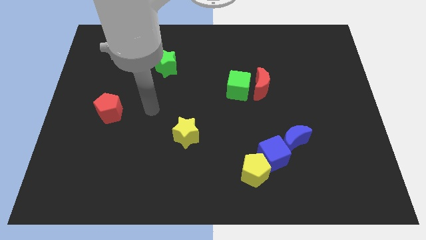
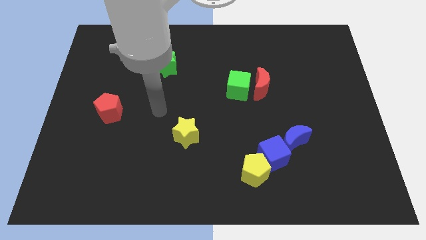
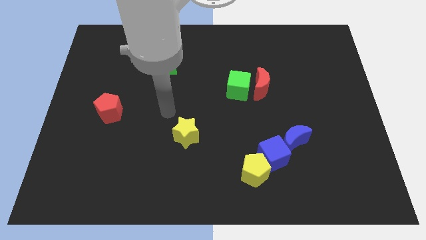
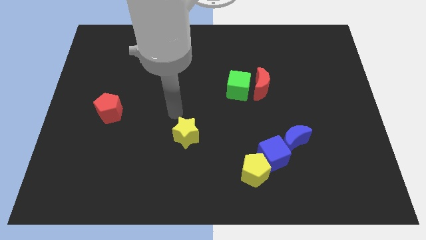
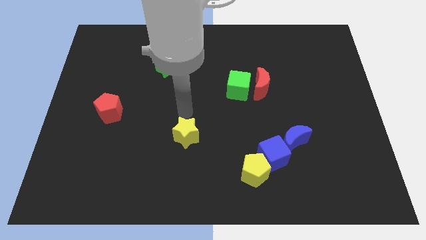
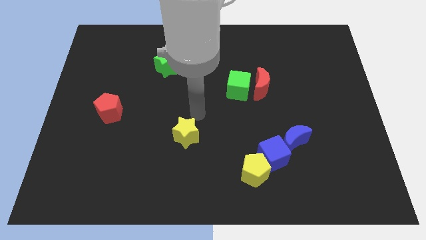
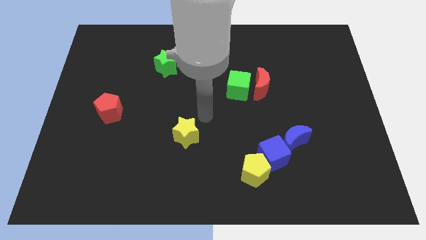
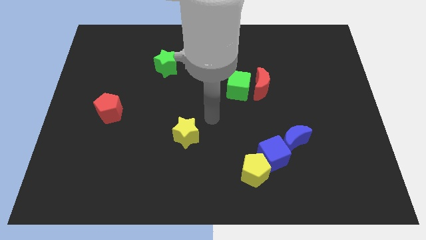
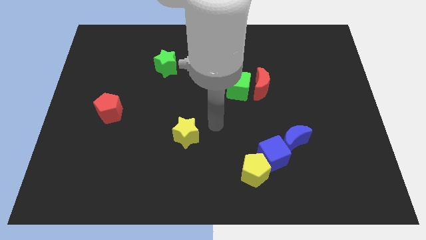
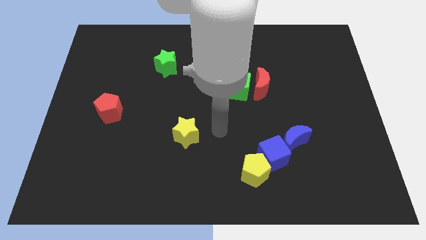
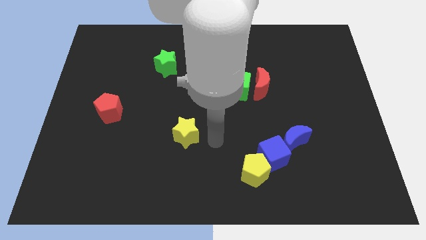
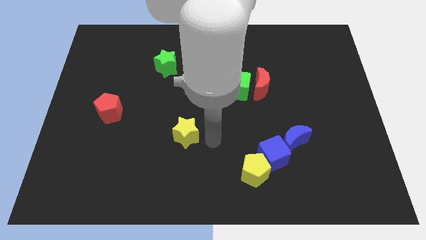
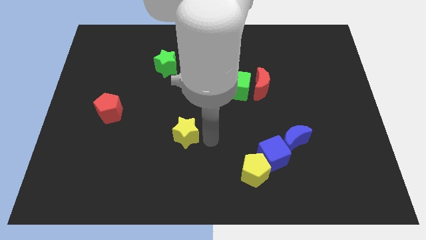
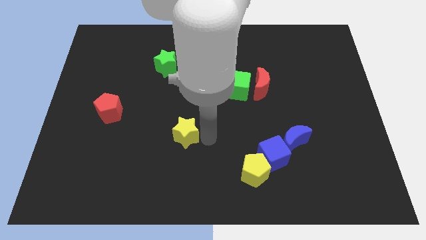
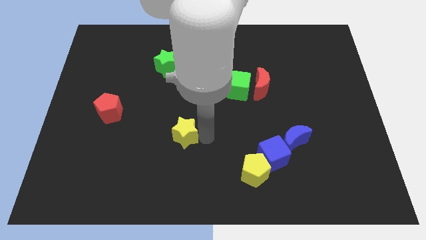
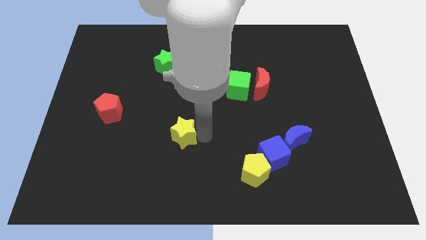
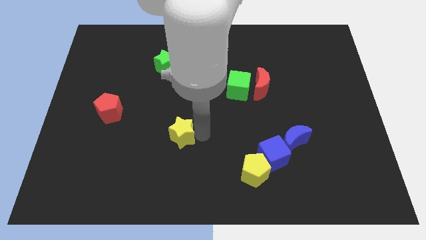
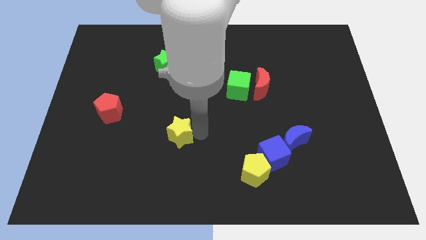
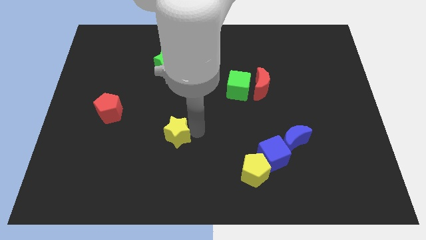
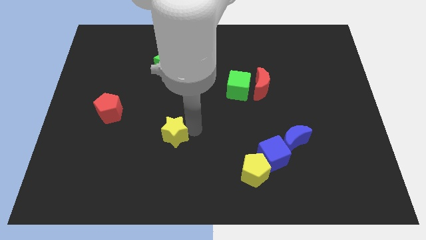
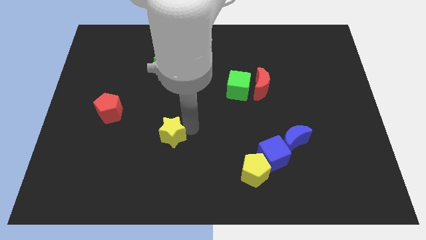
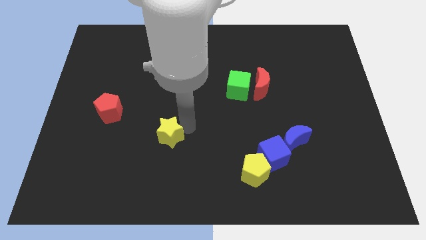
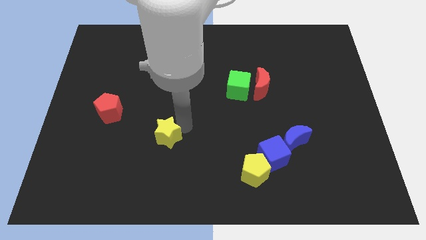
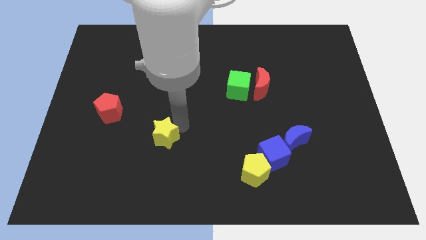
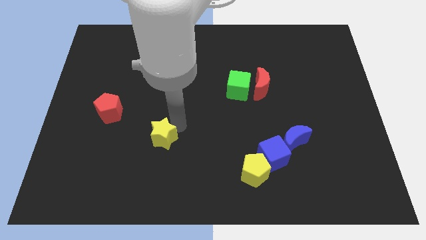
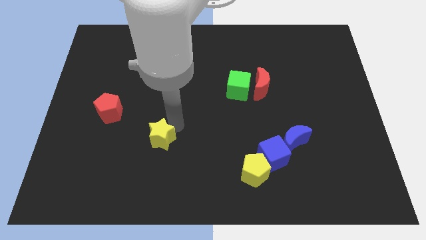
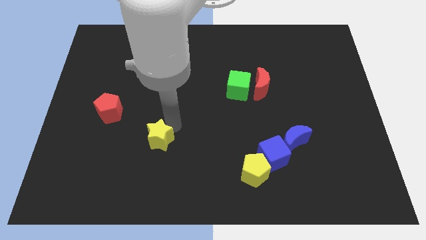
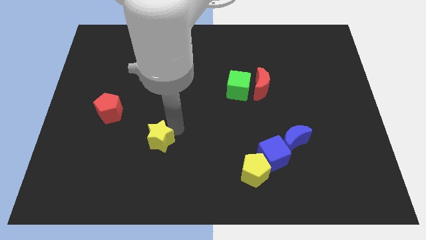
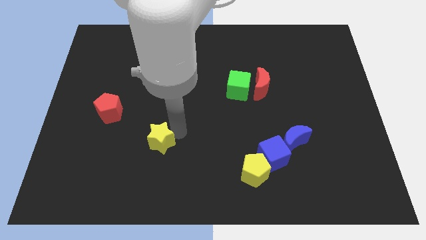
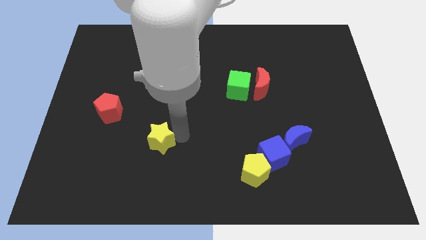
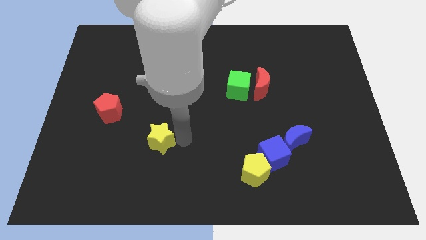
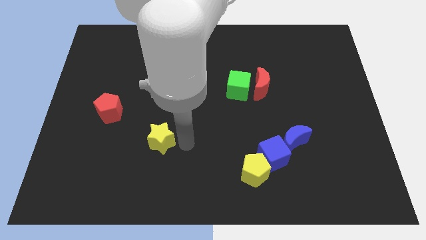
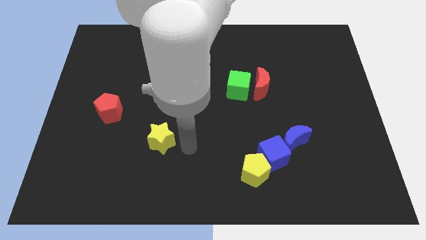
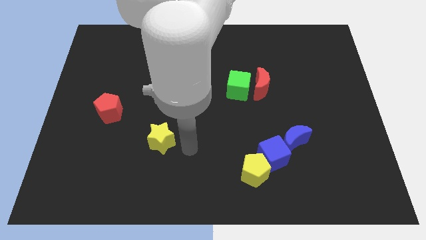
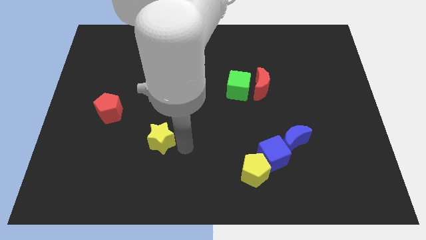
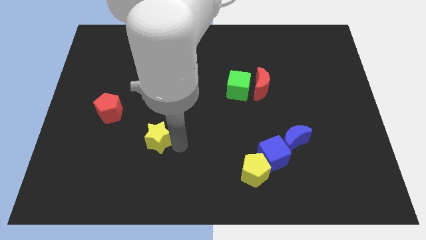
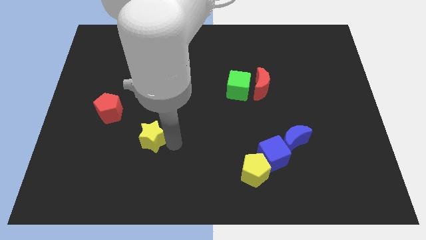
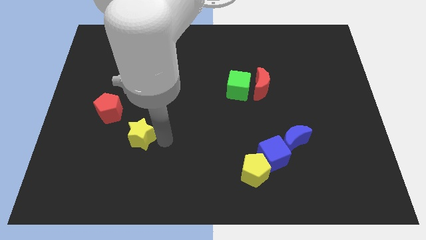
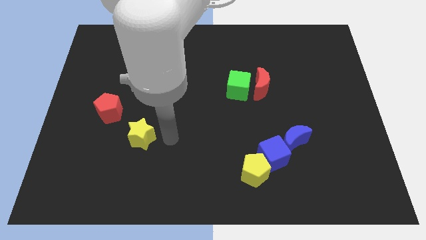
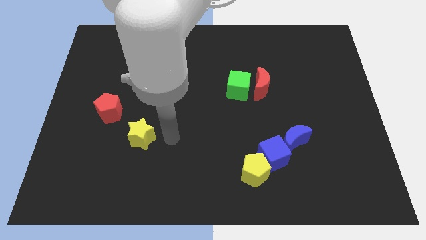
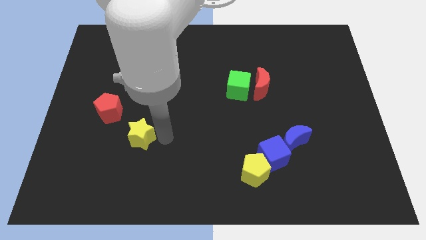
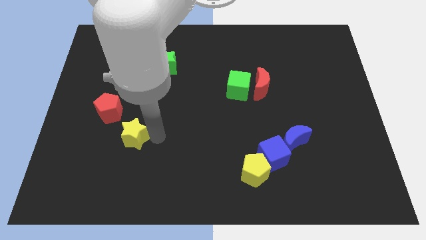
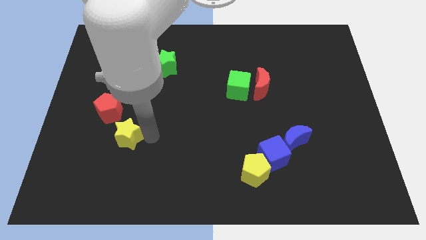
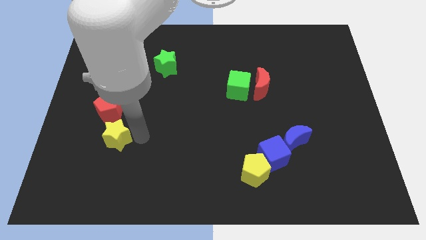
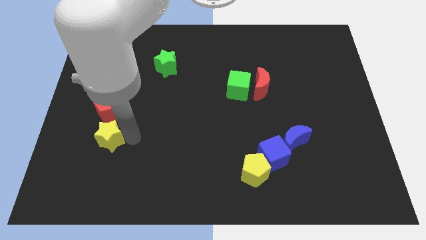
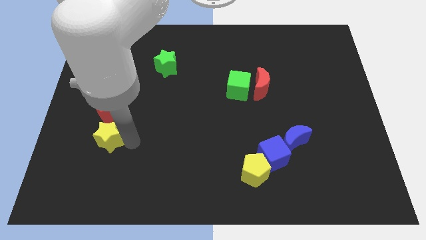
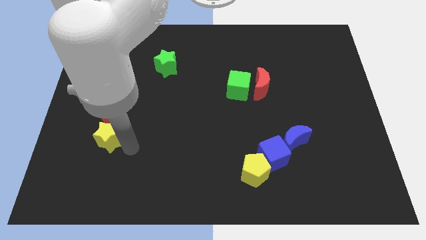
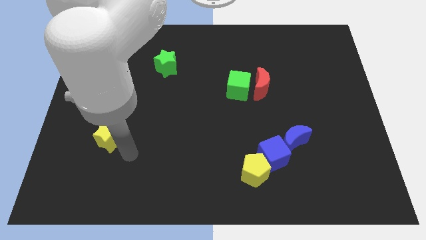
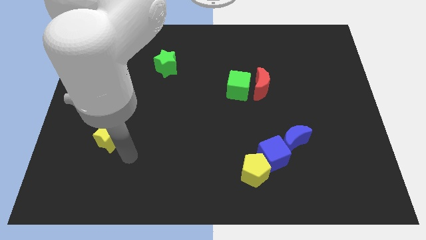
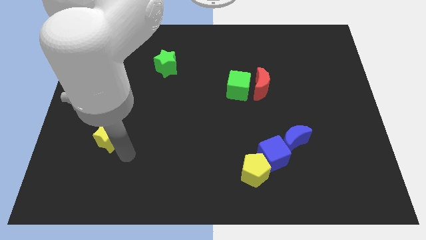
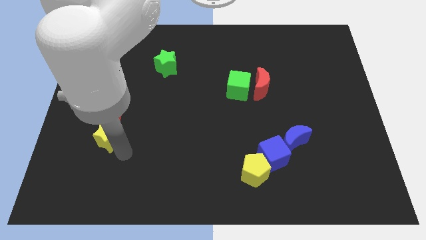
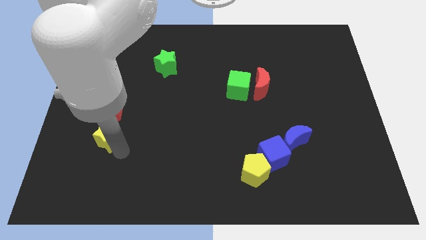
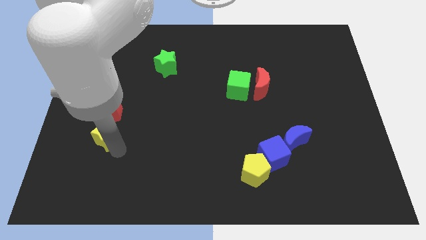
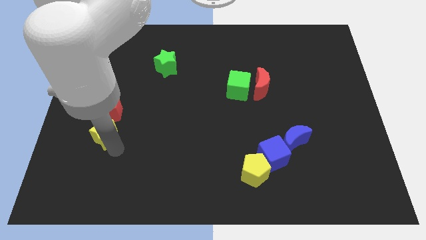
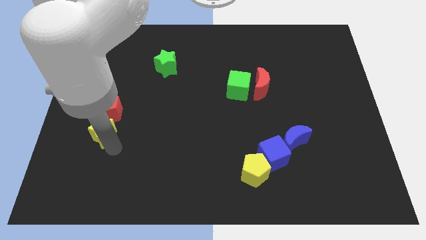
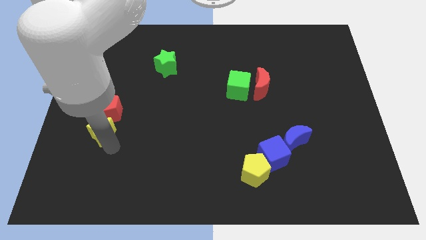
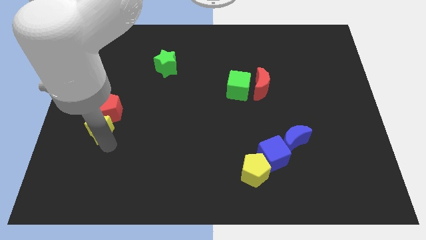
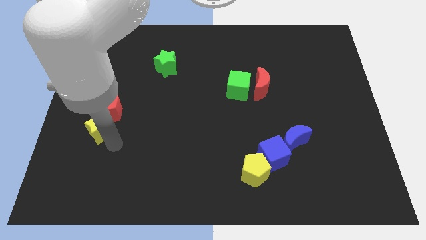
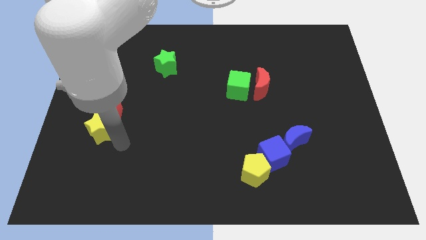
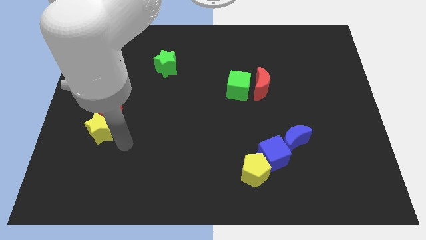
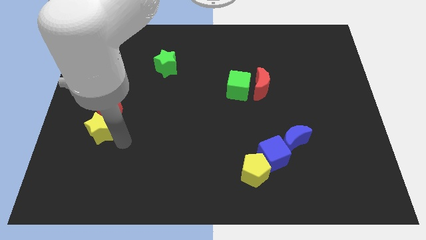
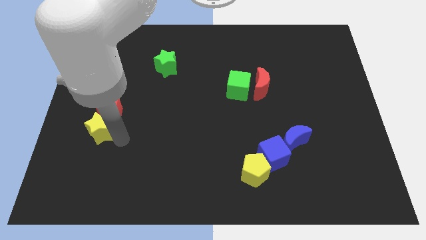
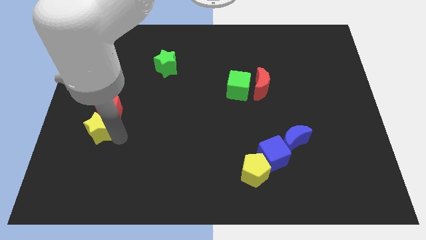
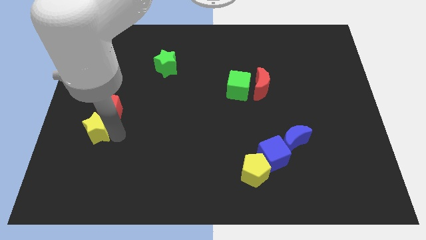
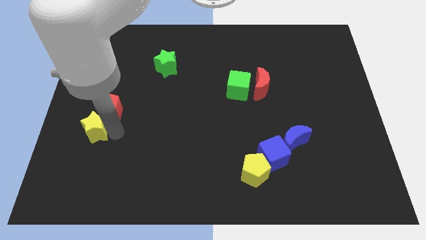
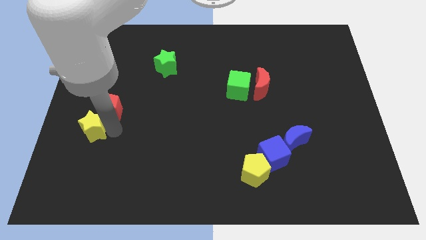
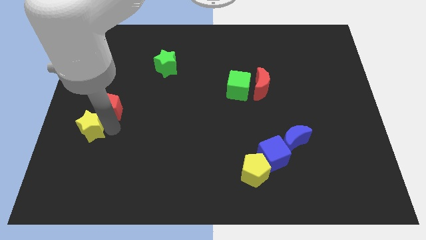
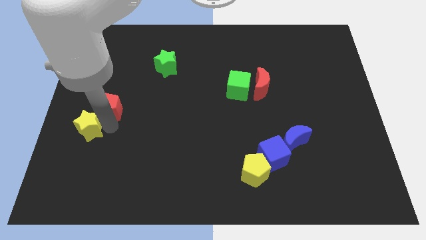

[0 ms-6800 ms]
move the yellow star to the left side
